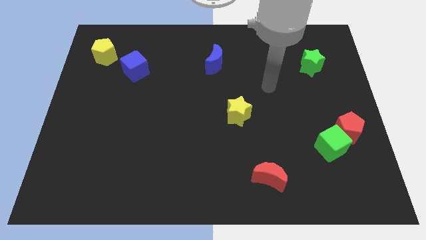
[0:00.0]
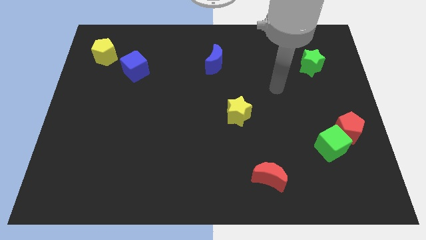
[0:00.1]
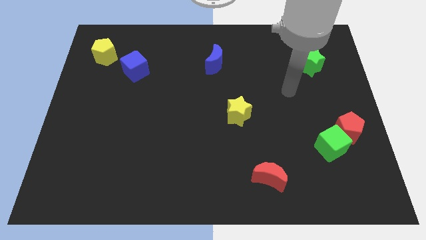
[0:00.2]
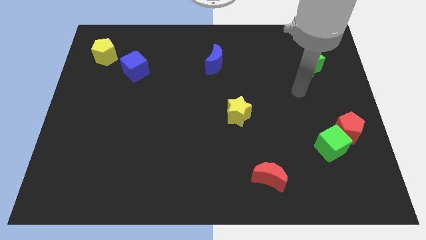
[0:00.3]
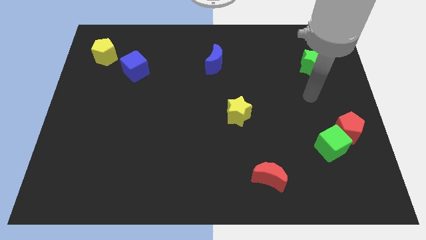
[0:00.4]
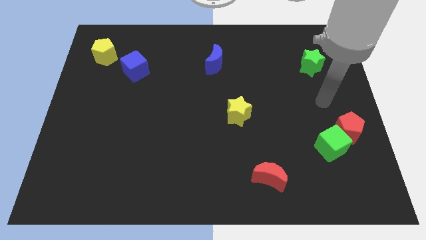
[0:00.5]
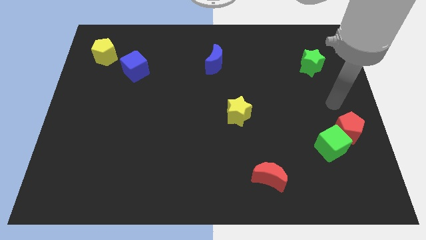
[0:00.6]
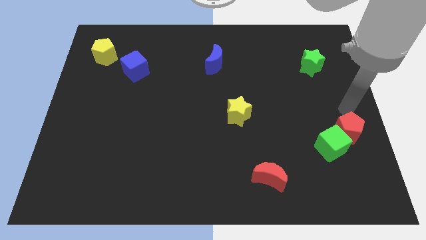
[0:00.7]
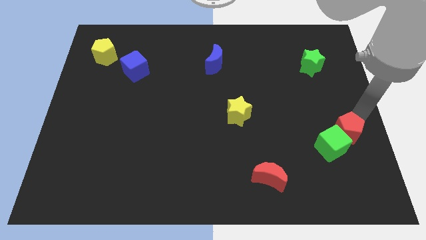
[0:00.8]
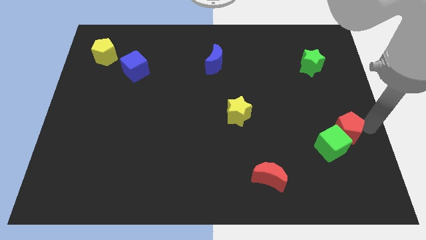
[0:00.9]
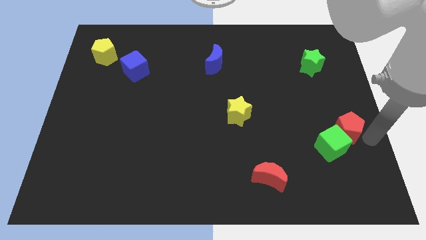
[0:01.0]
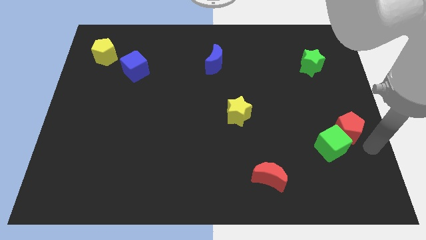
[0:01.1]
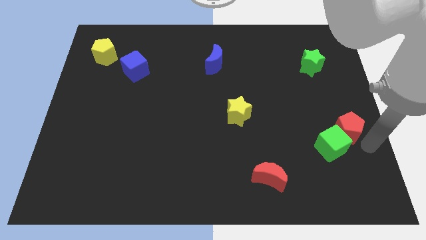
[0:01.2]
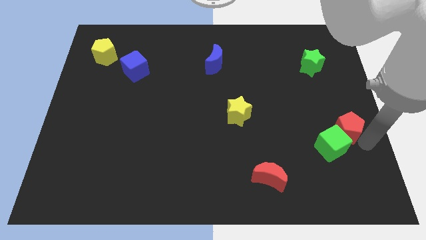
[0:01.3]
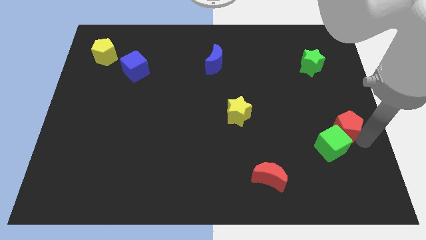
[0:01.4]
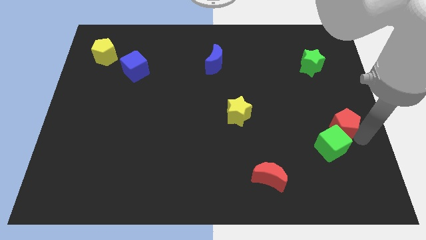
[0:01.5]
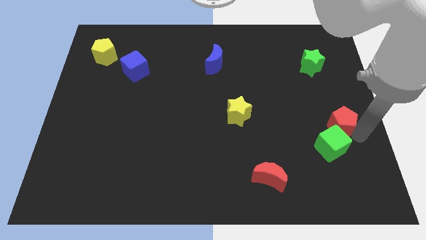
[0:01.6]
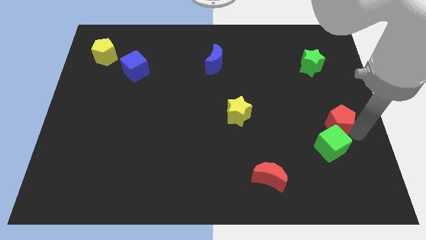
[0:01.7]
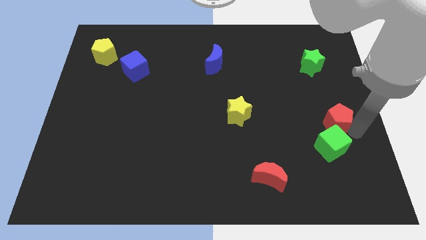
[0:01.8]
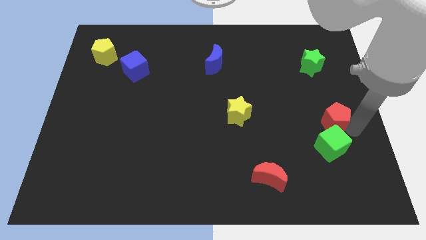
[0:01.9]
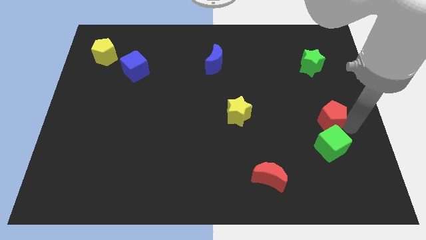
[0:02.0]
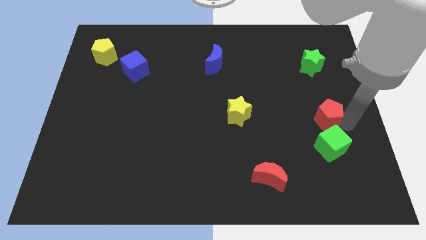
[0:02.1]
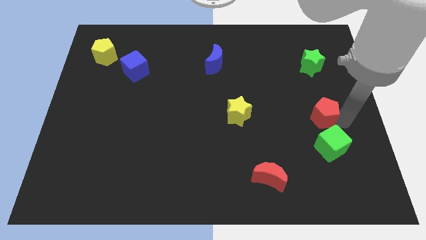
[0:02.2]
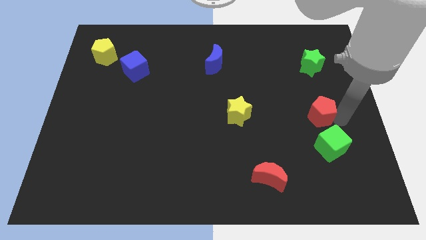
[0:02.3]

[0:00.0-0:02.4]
slightly move the red pentagon up and then to the left

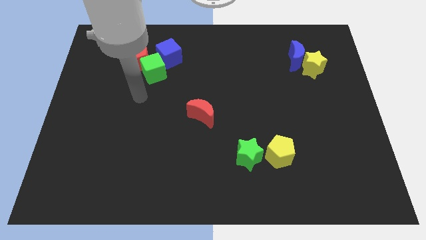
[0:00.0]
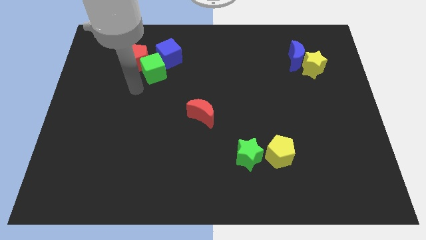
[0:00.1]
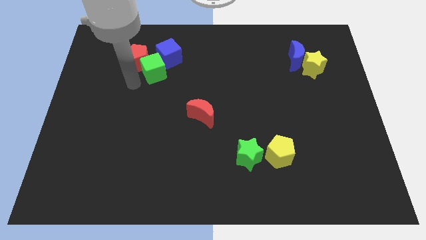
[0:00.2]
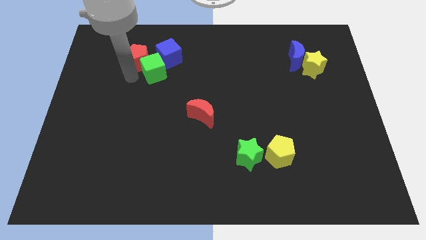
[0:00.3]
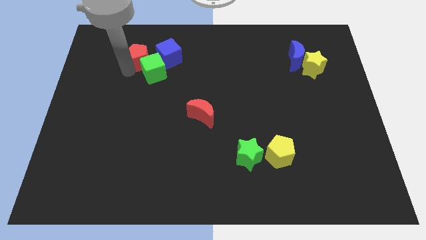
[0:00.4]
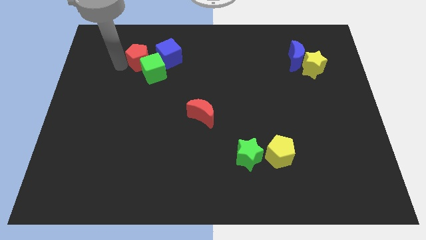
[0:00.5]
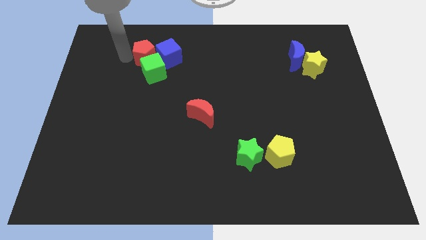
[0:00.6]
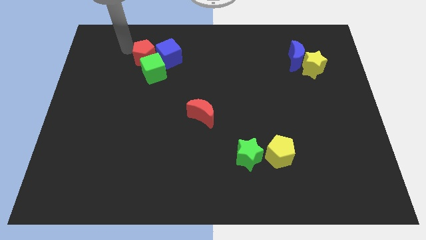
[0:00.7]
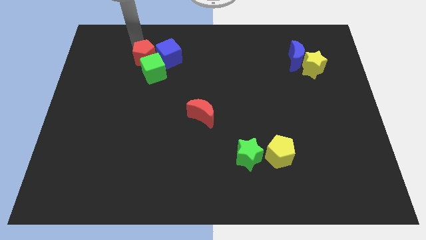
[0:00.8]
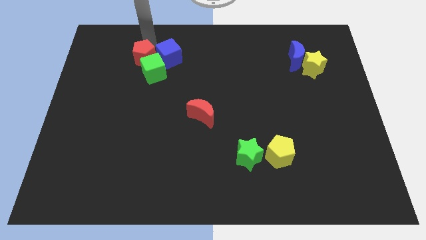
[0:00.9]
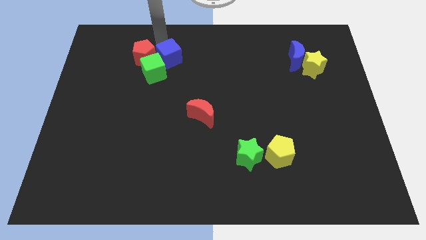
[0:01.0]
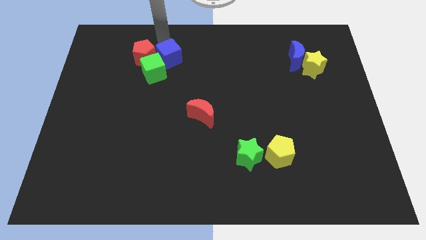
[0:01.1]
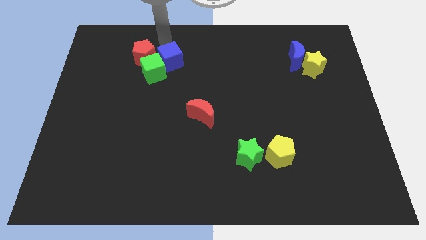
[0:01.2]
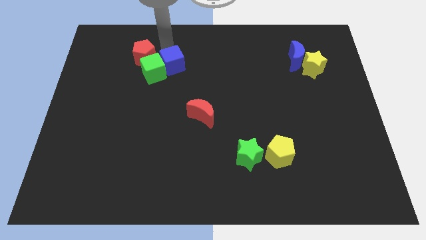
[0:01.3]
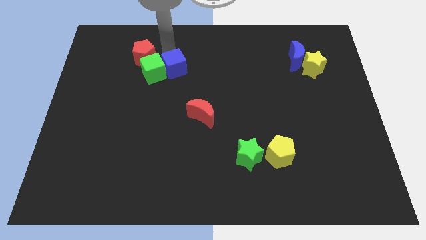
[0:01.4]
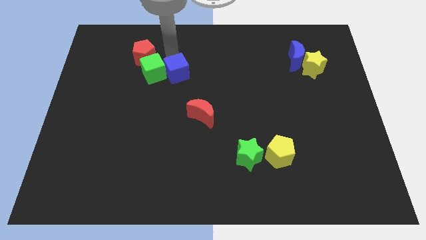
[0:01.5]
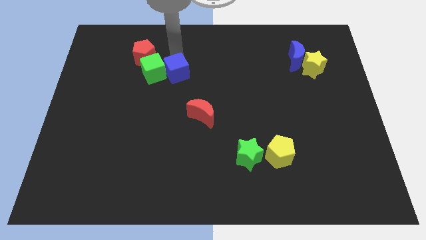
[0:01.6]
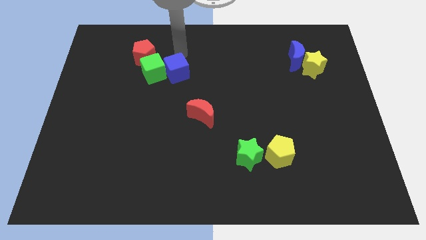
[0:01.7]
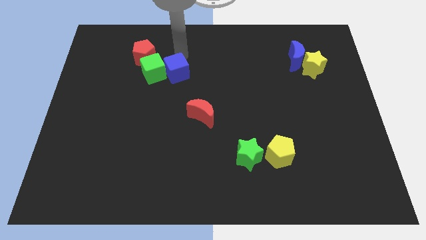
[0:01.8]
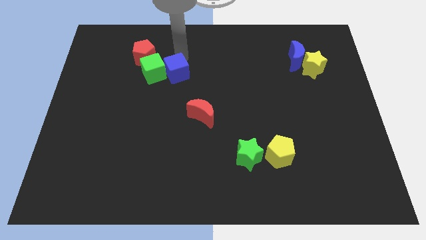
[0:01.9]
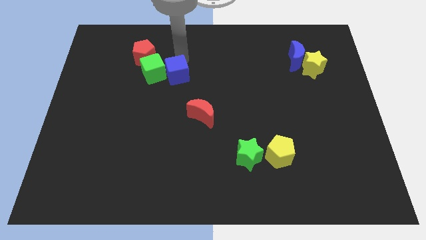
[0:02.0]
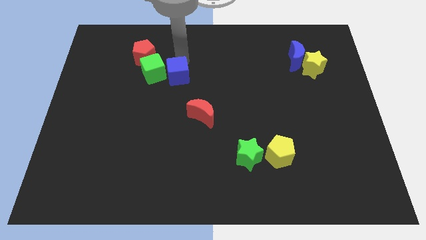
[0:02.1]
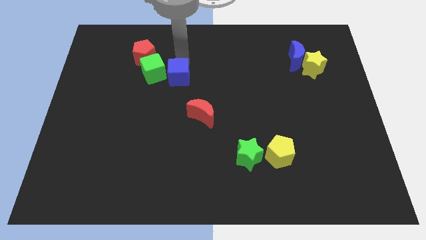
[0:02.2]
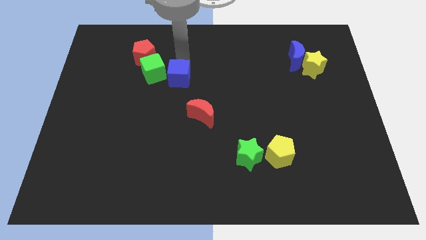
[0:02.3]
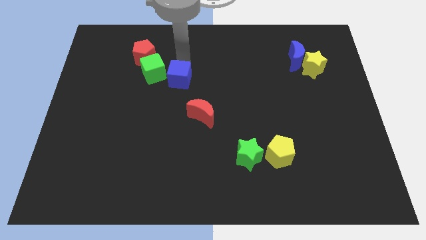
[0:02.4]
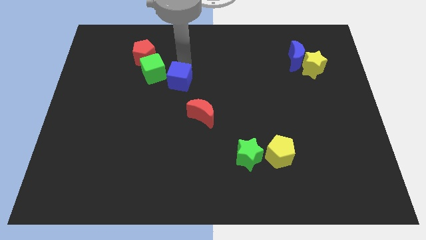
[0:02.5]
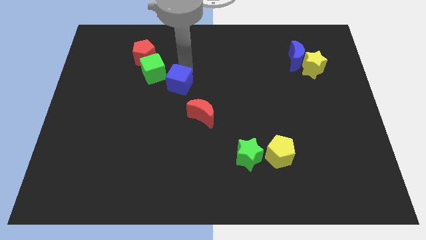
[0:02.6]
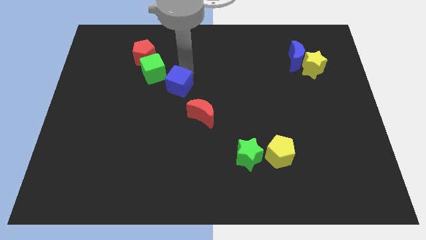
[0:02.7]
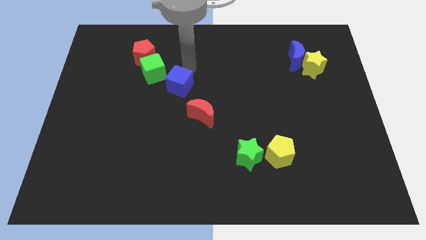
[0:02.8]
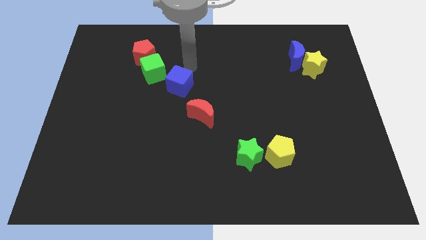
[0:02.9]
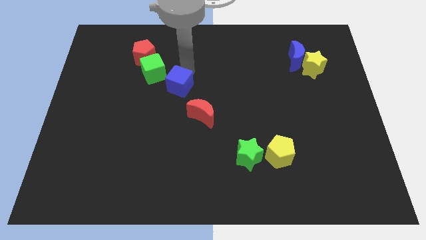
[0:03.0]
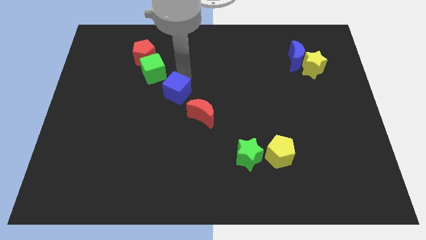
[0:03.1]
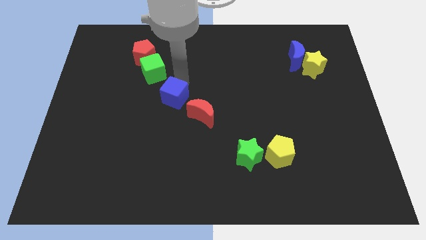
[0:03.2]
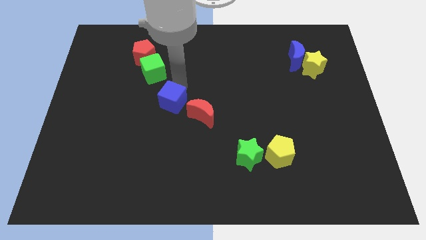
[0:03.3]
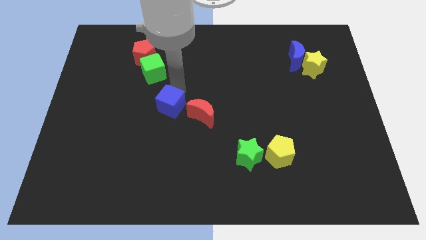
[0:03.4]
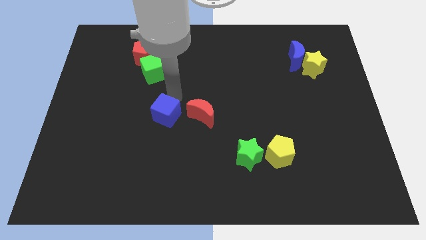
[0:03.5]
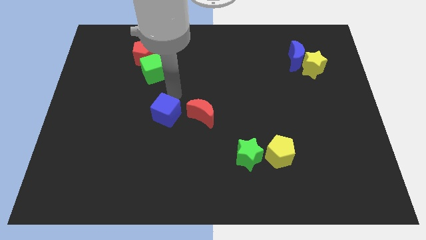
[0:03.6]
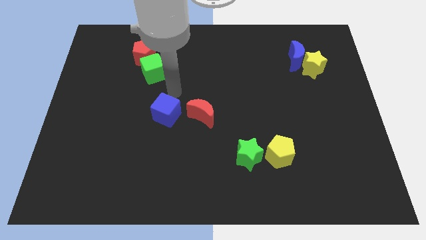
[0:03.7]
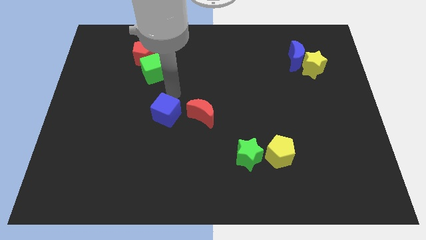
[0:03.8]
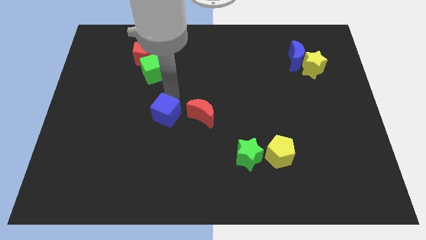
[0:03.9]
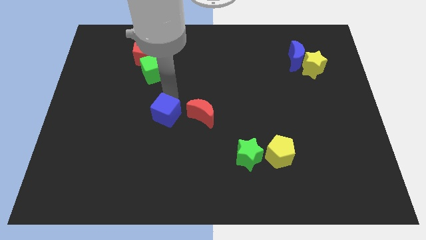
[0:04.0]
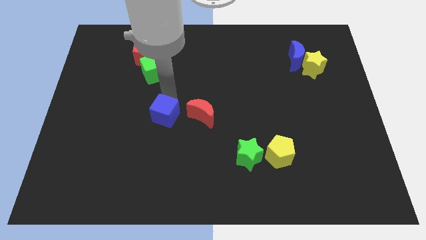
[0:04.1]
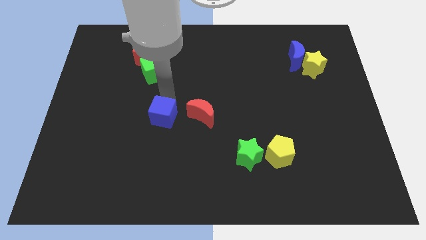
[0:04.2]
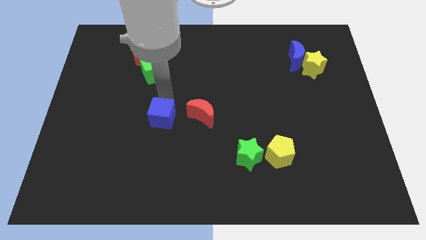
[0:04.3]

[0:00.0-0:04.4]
slide the blue cube down

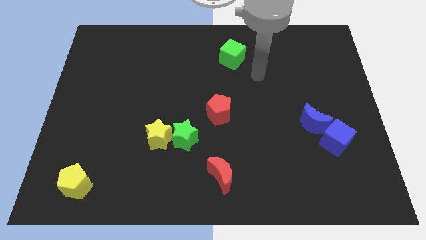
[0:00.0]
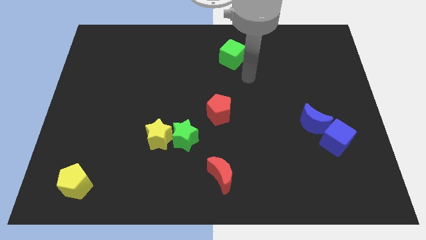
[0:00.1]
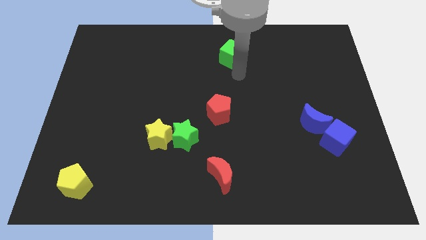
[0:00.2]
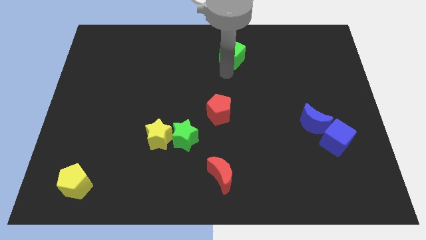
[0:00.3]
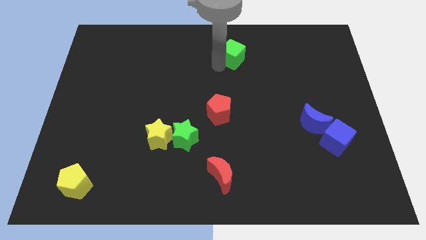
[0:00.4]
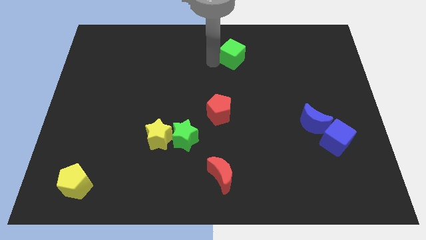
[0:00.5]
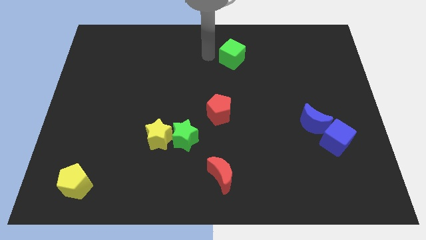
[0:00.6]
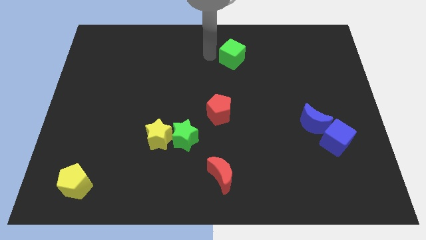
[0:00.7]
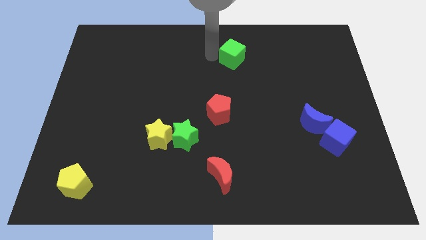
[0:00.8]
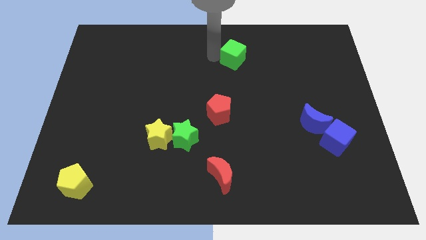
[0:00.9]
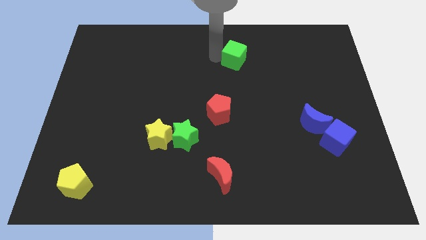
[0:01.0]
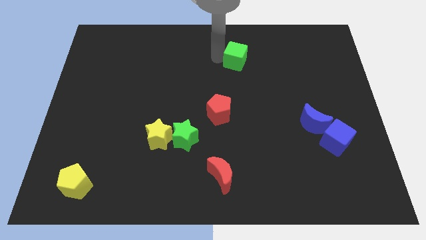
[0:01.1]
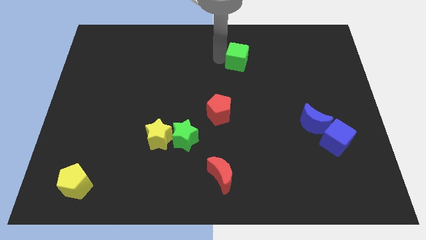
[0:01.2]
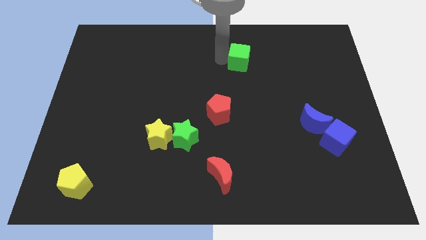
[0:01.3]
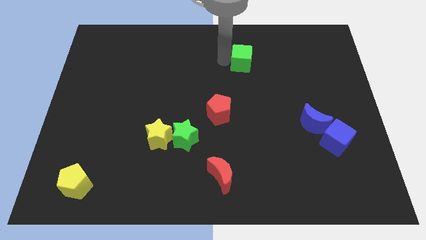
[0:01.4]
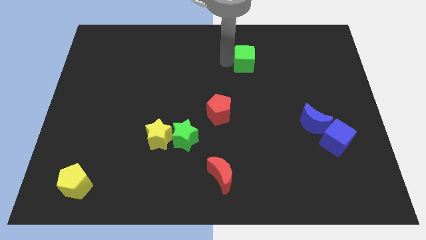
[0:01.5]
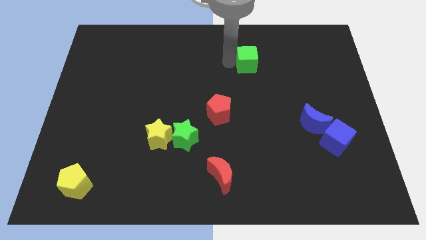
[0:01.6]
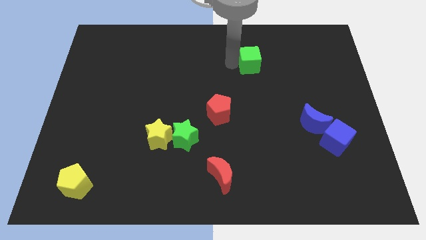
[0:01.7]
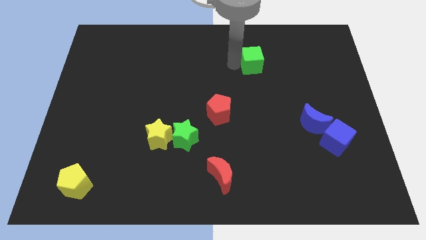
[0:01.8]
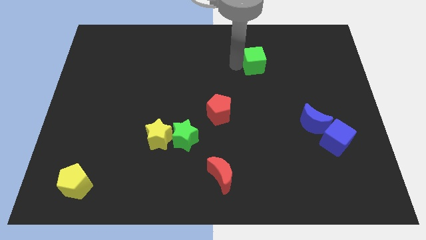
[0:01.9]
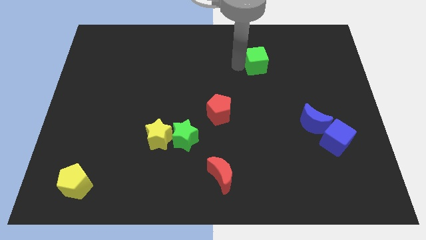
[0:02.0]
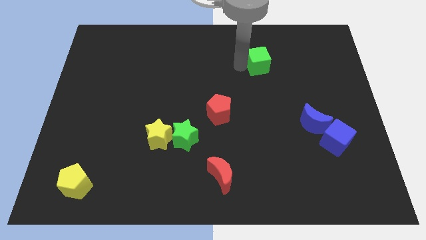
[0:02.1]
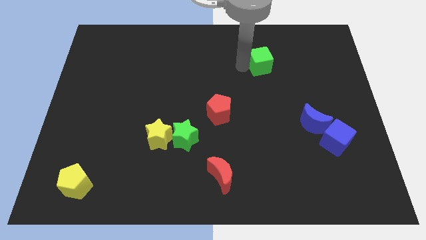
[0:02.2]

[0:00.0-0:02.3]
move the green cube a little right
